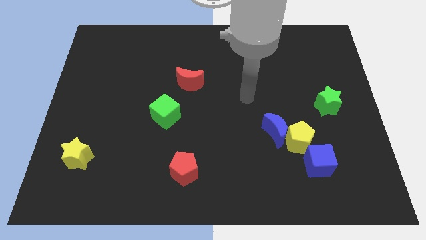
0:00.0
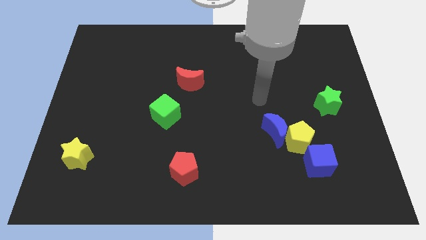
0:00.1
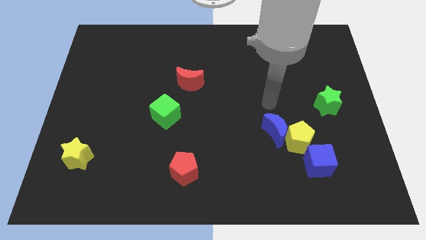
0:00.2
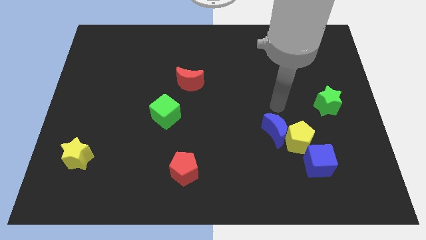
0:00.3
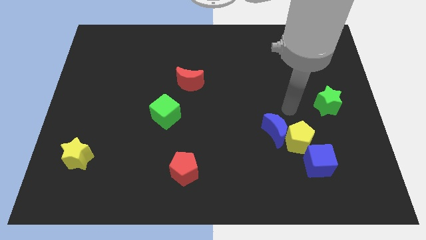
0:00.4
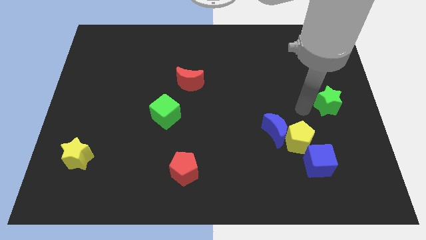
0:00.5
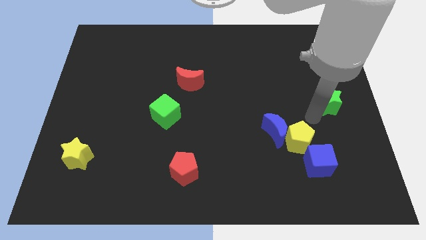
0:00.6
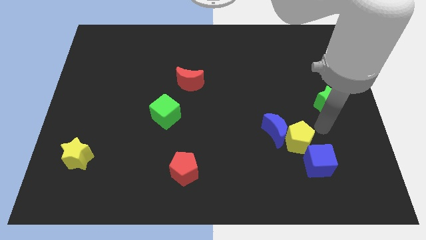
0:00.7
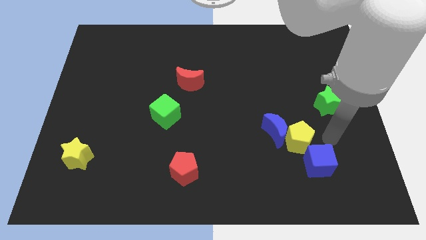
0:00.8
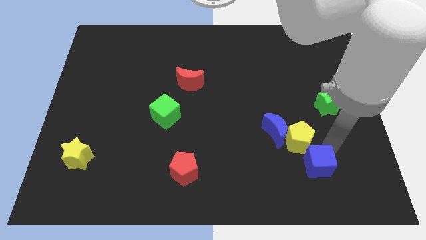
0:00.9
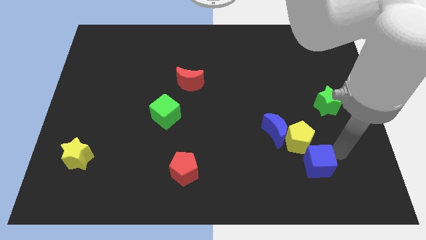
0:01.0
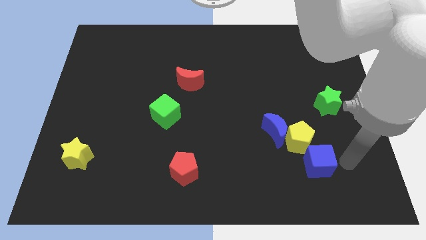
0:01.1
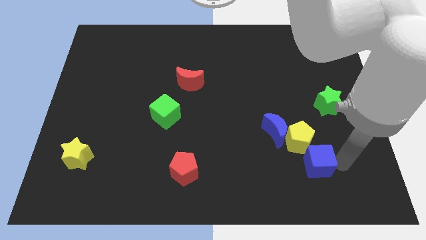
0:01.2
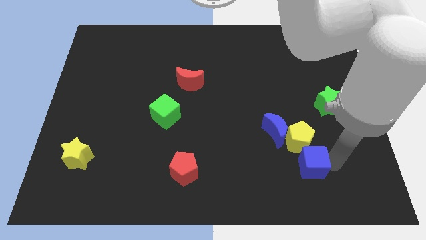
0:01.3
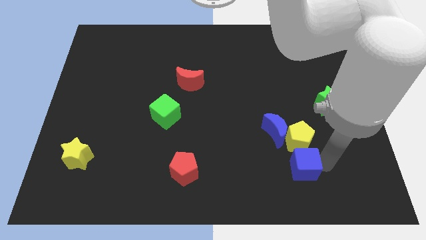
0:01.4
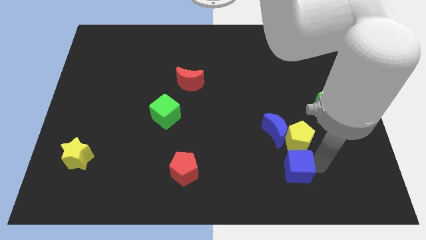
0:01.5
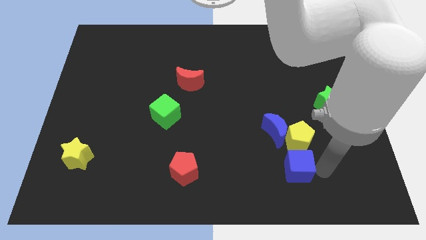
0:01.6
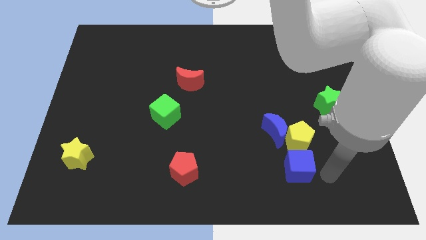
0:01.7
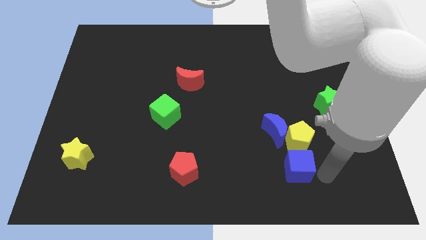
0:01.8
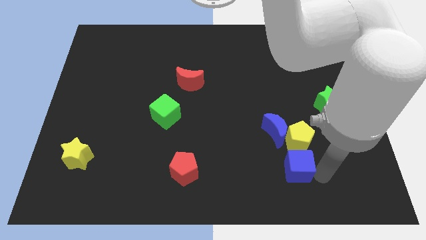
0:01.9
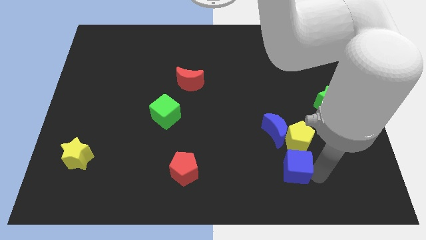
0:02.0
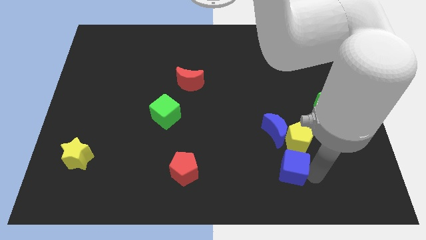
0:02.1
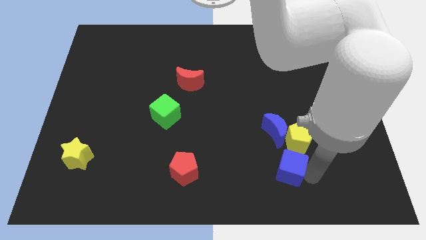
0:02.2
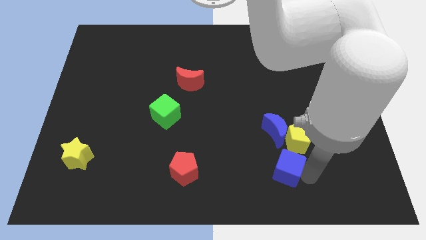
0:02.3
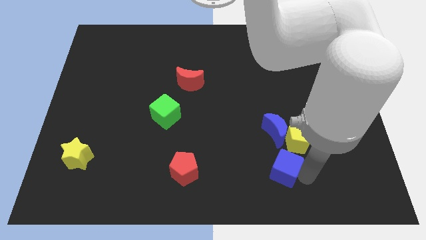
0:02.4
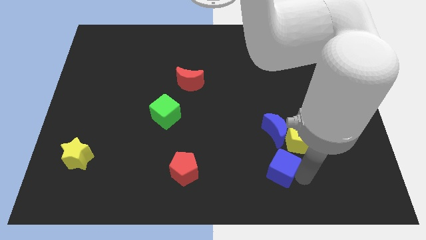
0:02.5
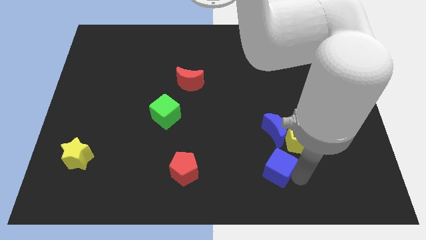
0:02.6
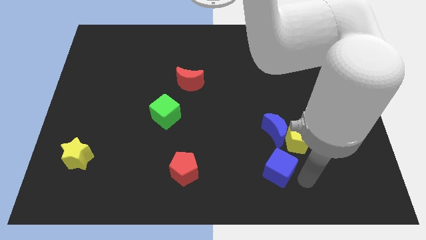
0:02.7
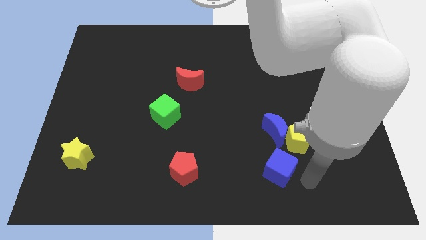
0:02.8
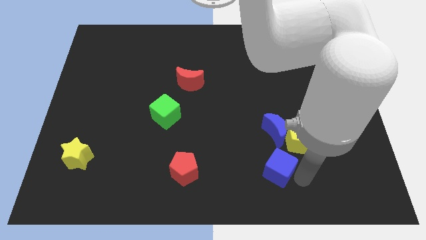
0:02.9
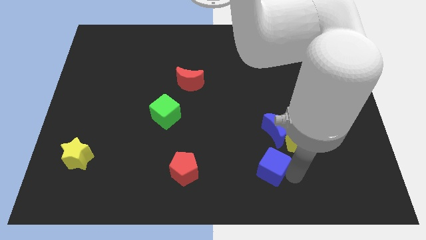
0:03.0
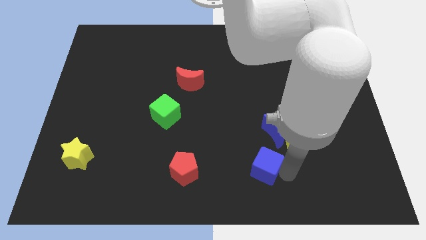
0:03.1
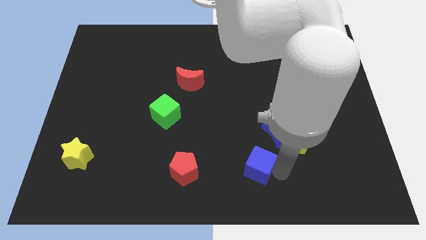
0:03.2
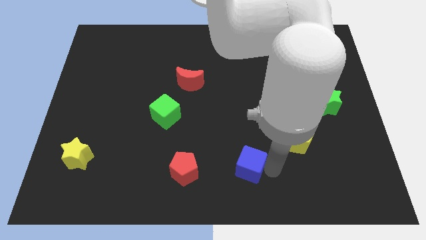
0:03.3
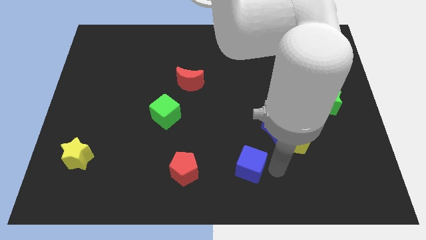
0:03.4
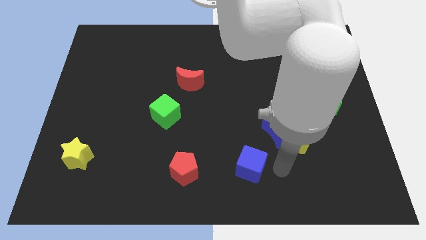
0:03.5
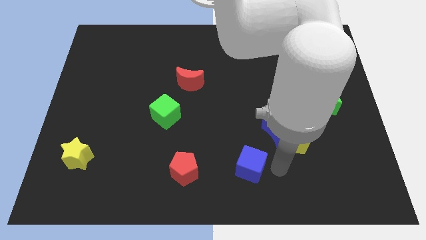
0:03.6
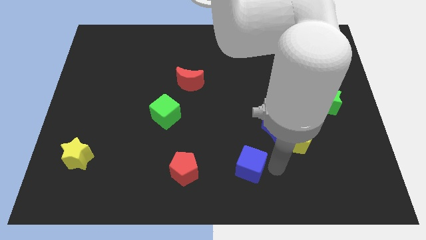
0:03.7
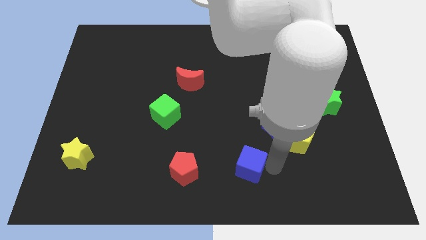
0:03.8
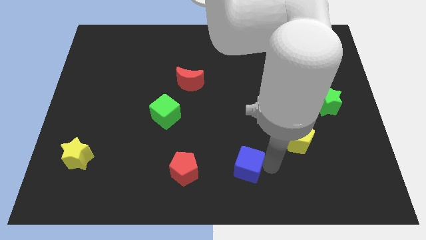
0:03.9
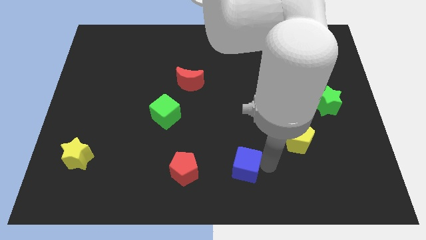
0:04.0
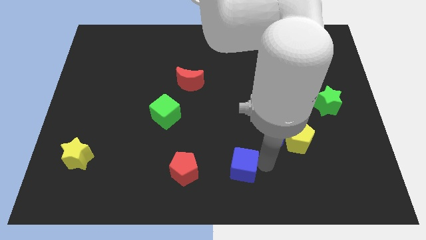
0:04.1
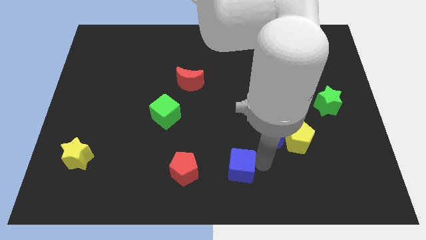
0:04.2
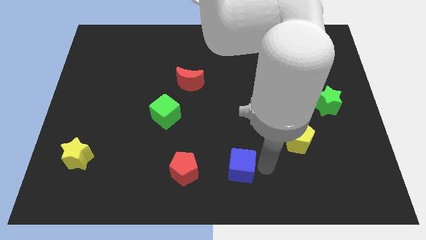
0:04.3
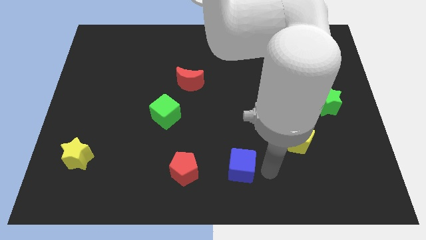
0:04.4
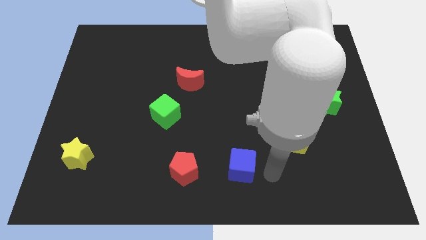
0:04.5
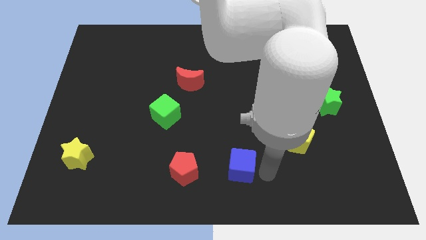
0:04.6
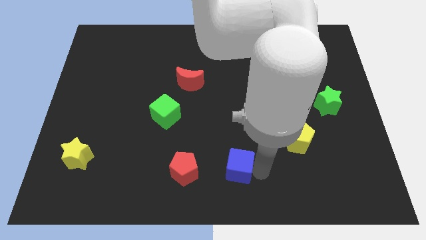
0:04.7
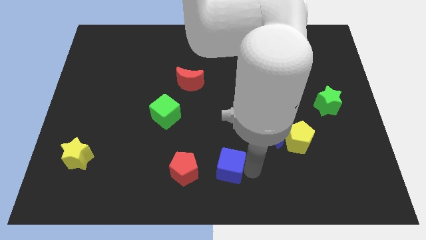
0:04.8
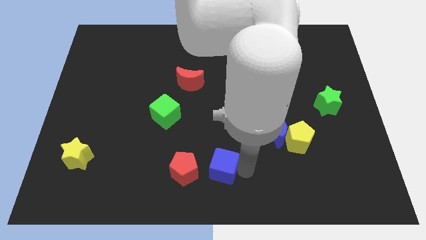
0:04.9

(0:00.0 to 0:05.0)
move the blue cube to the left

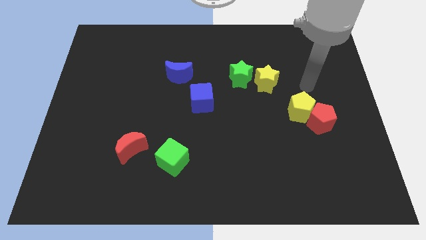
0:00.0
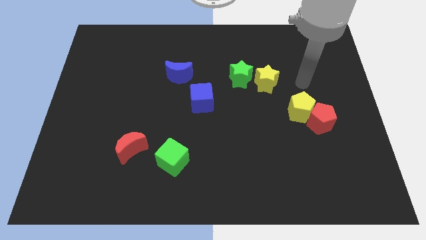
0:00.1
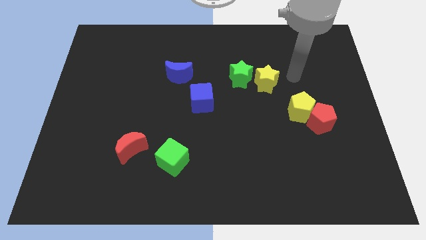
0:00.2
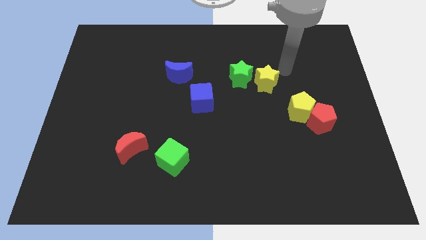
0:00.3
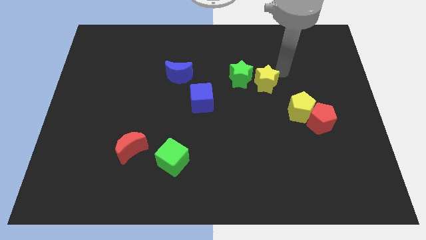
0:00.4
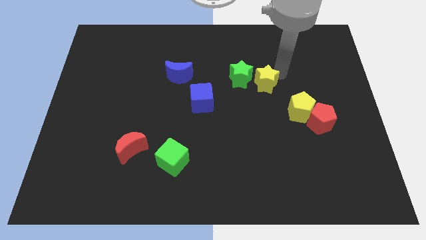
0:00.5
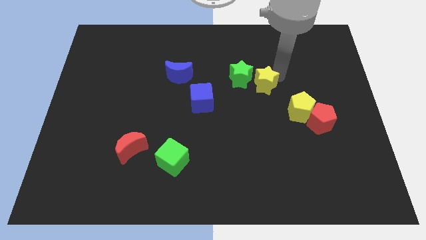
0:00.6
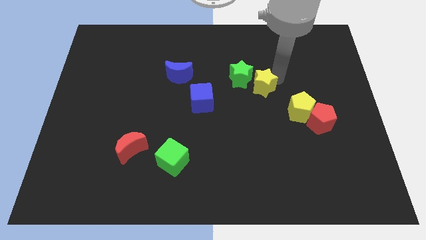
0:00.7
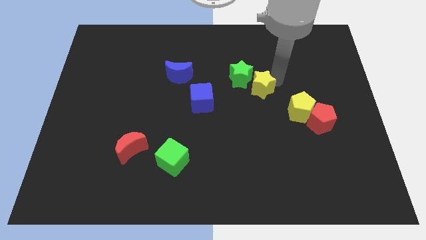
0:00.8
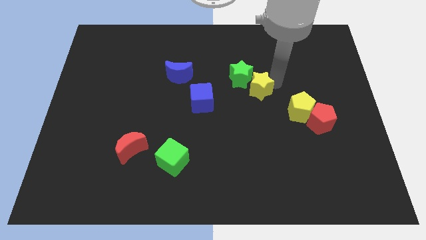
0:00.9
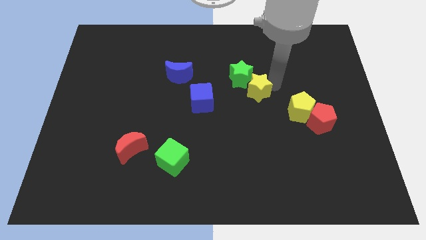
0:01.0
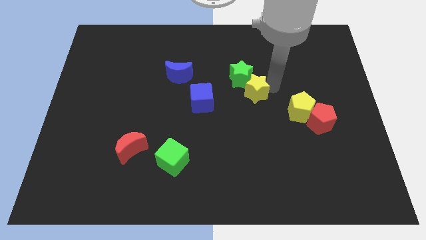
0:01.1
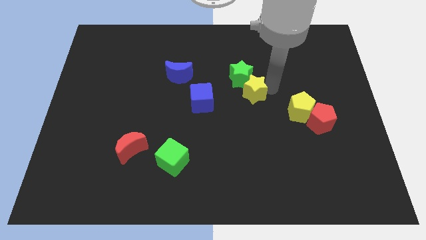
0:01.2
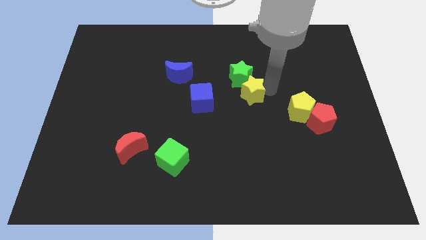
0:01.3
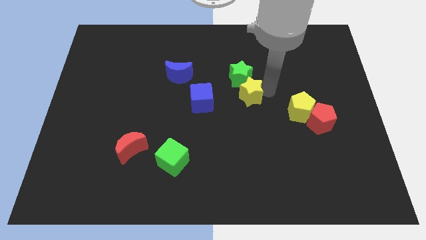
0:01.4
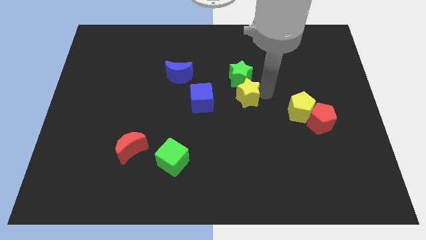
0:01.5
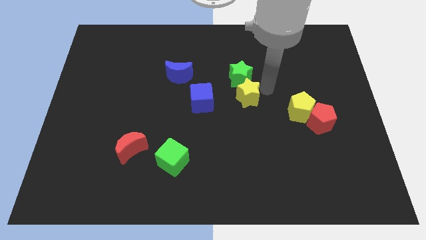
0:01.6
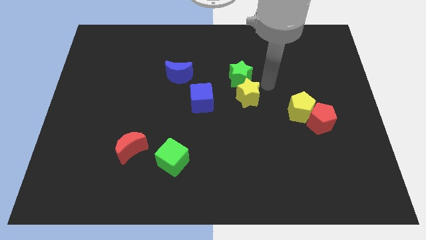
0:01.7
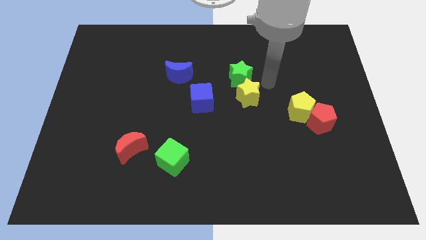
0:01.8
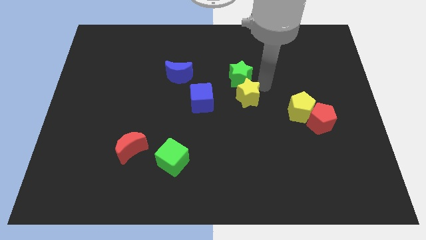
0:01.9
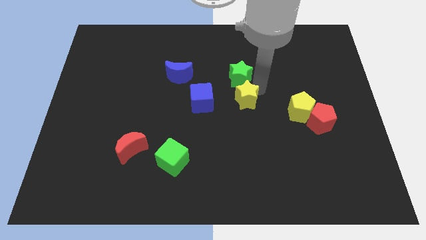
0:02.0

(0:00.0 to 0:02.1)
slide the yellow star diagonally downwards and left somewhat

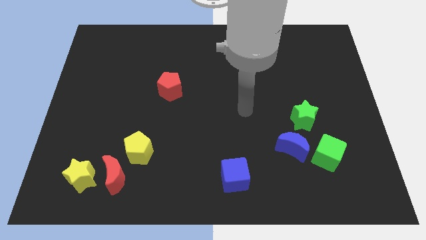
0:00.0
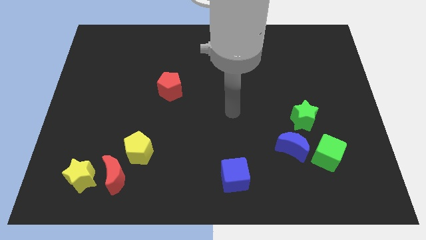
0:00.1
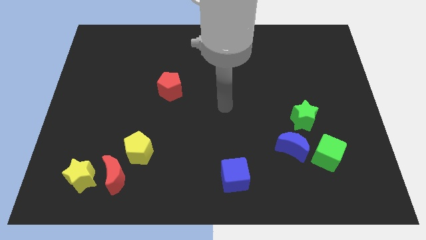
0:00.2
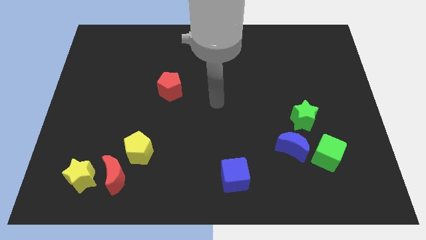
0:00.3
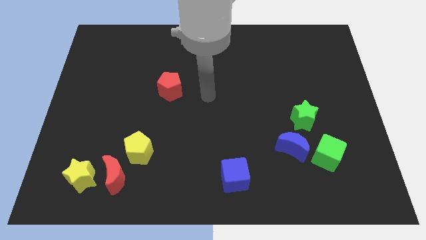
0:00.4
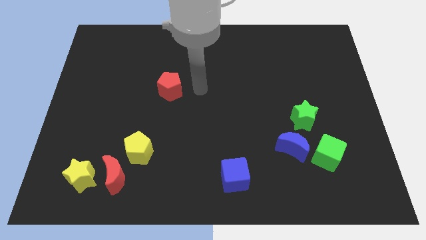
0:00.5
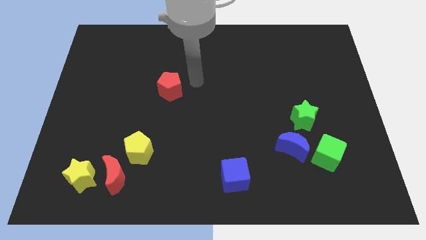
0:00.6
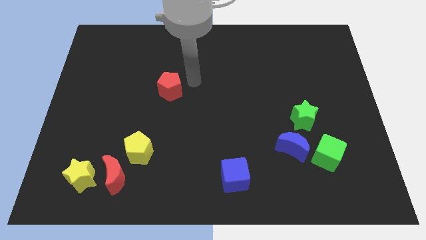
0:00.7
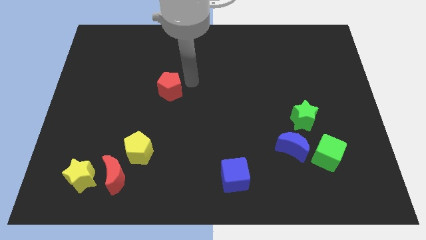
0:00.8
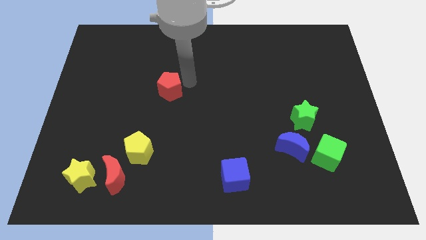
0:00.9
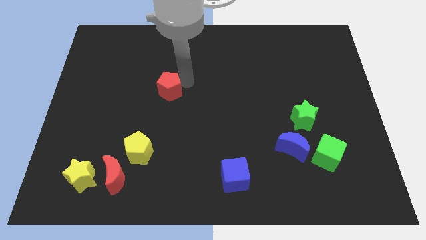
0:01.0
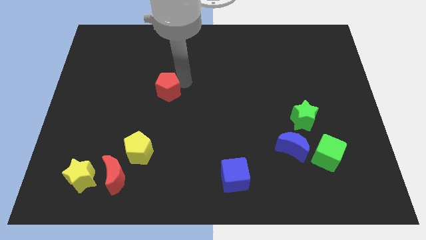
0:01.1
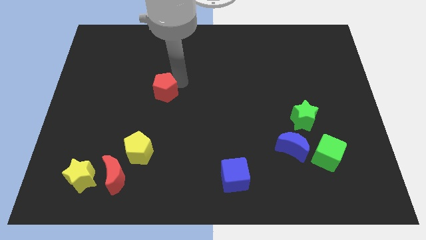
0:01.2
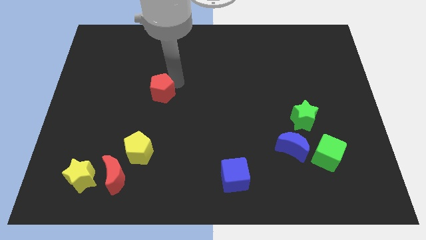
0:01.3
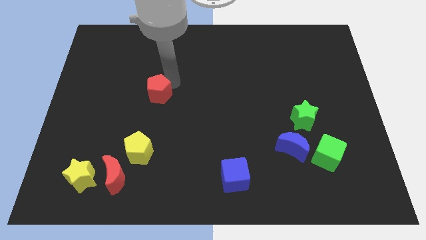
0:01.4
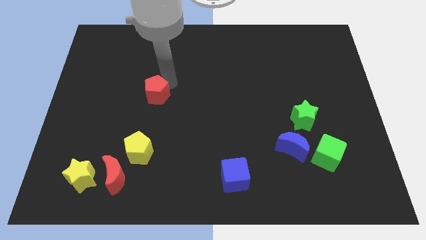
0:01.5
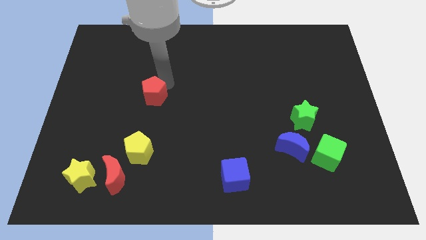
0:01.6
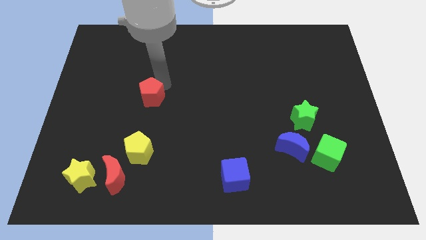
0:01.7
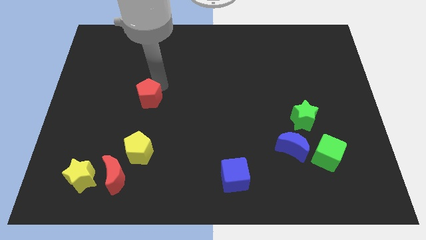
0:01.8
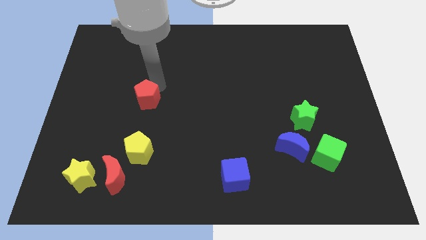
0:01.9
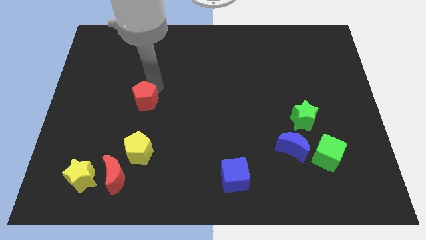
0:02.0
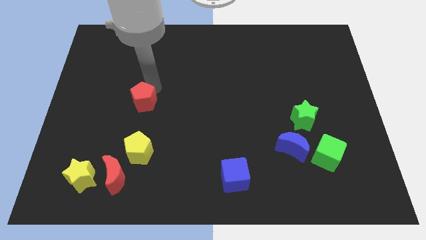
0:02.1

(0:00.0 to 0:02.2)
push the red pentagon slightly downwards and to the left
